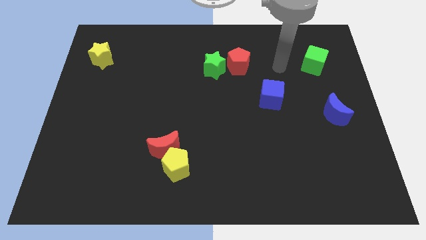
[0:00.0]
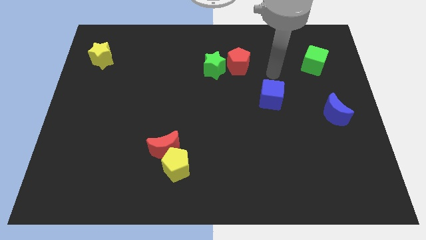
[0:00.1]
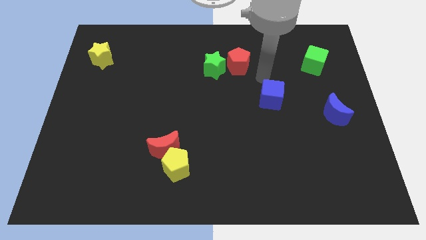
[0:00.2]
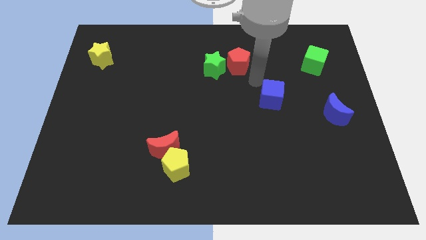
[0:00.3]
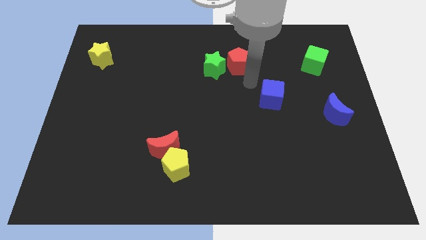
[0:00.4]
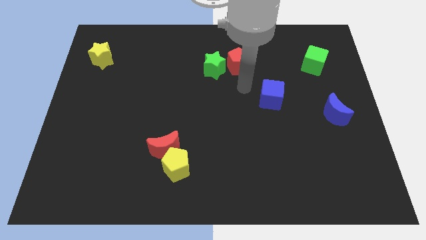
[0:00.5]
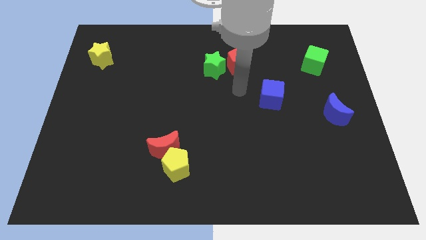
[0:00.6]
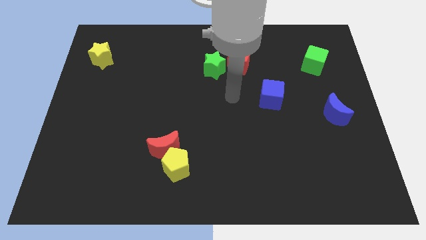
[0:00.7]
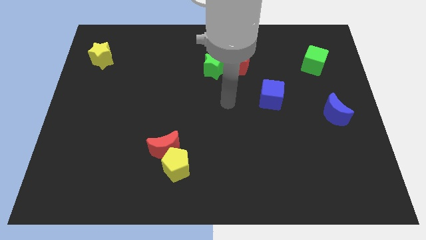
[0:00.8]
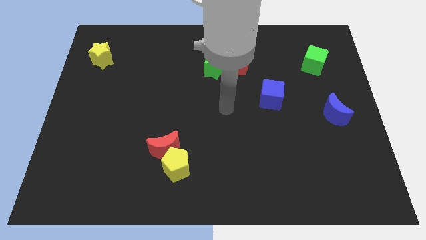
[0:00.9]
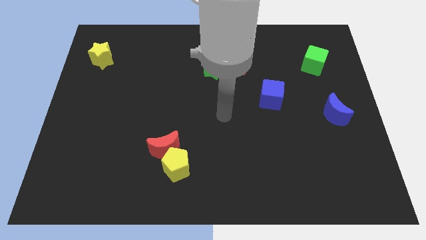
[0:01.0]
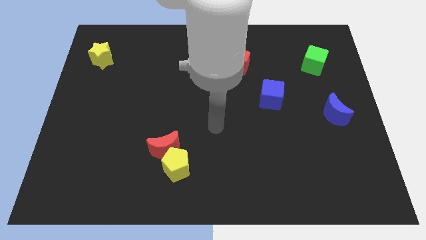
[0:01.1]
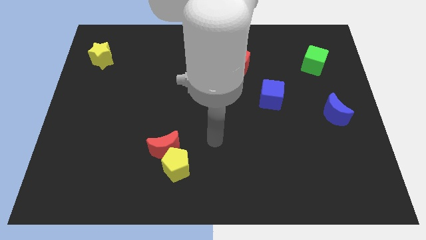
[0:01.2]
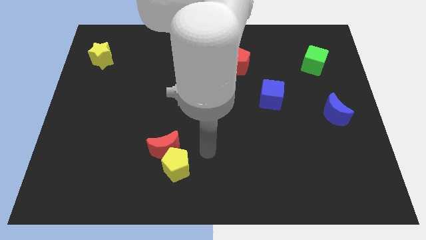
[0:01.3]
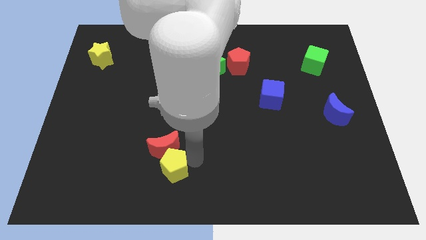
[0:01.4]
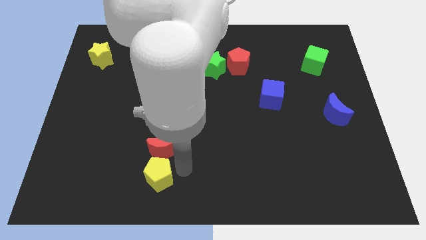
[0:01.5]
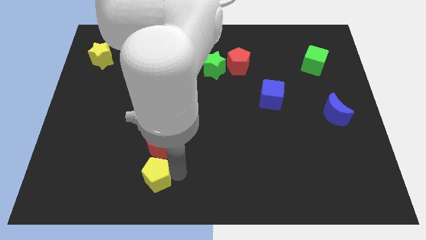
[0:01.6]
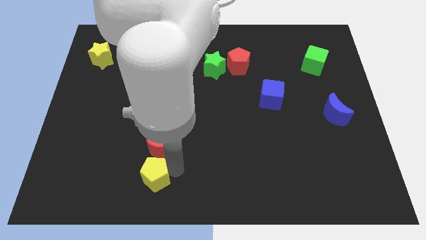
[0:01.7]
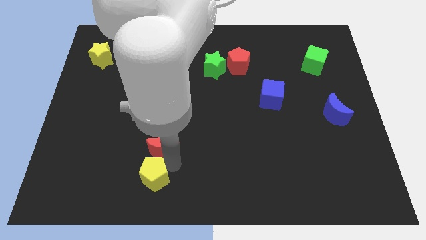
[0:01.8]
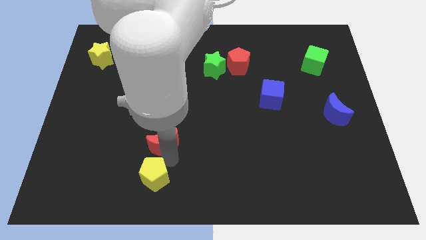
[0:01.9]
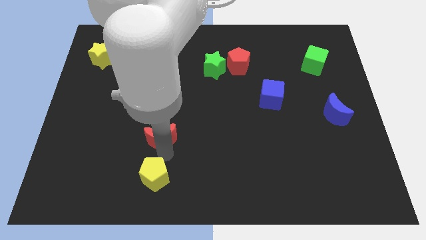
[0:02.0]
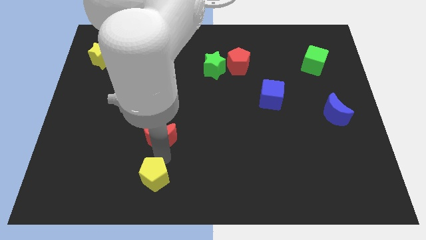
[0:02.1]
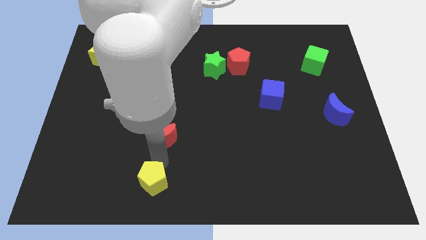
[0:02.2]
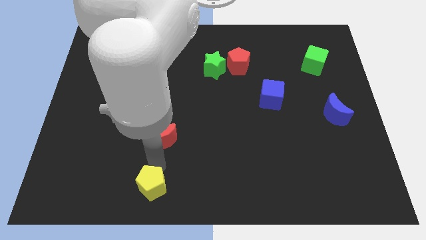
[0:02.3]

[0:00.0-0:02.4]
pull the red moon apart from the yellow pentagon

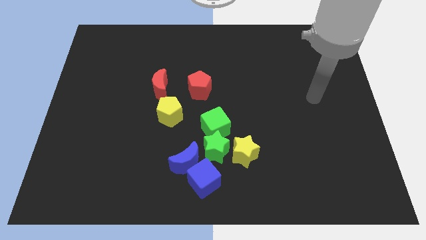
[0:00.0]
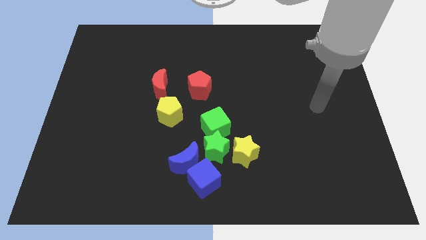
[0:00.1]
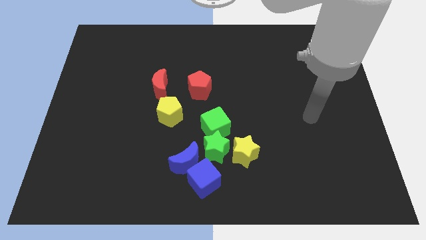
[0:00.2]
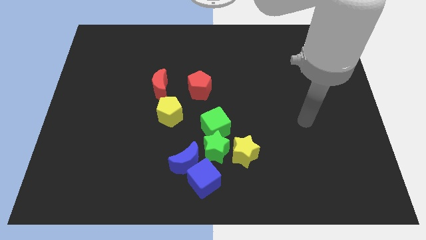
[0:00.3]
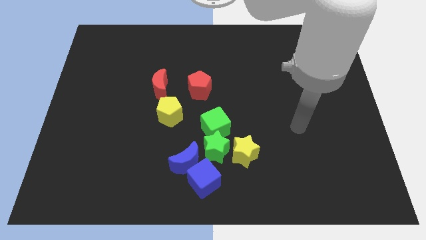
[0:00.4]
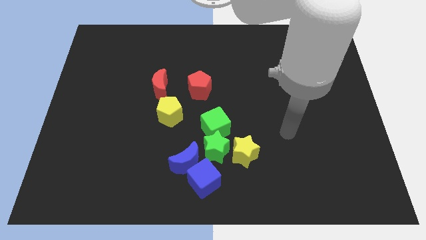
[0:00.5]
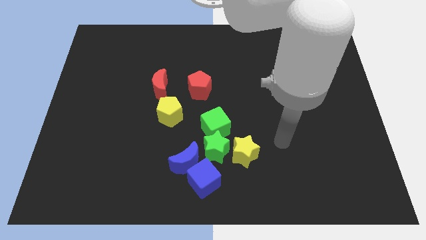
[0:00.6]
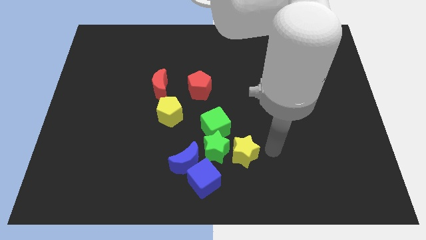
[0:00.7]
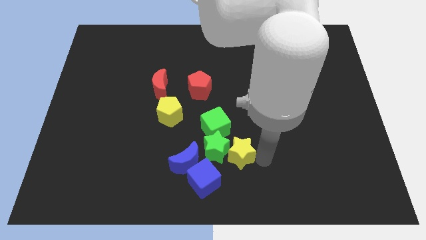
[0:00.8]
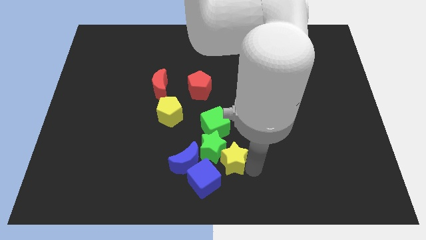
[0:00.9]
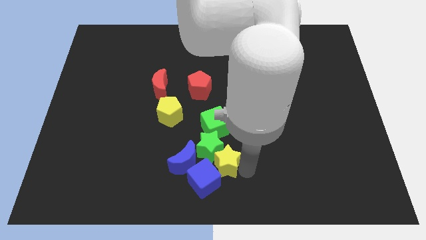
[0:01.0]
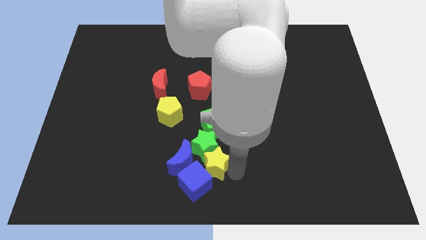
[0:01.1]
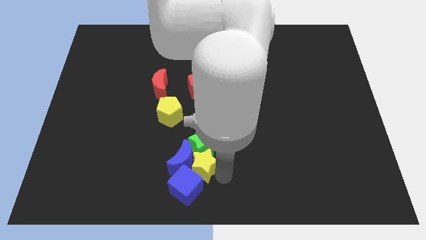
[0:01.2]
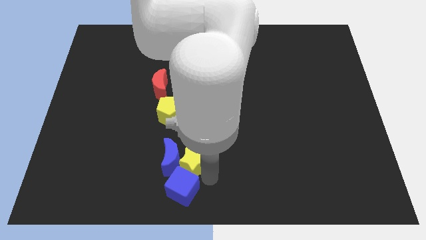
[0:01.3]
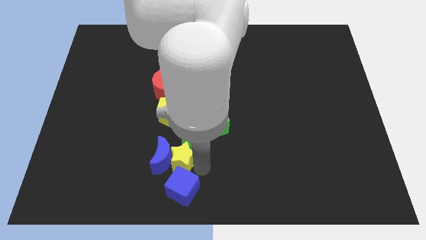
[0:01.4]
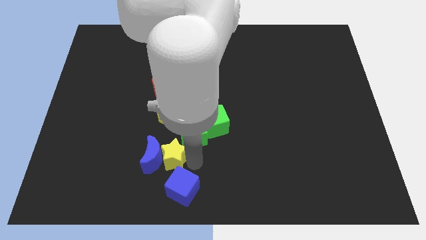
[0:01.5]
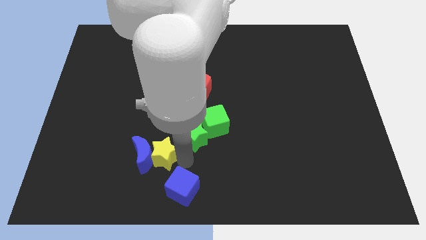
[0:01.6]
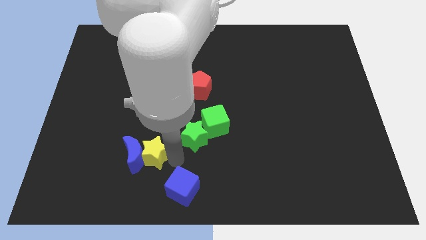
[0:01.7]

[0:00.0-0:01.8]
pull the blue moon apart from the blue cube and green star

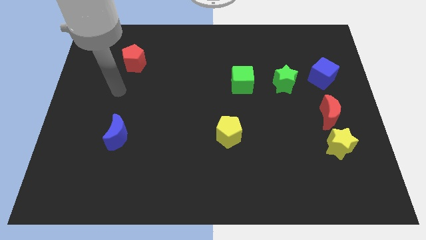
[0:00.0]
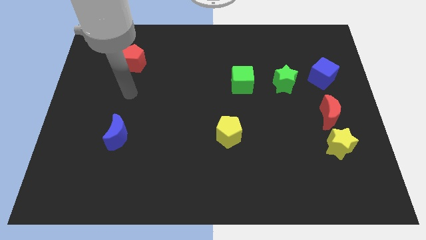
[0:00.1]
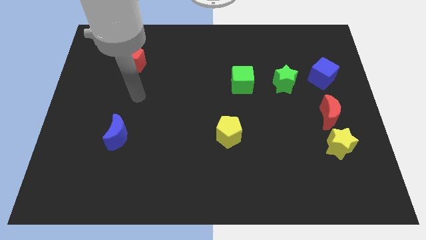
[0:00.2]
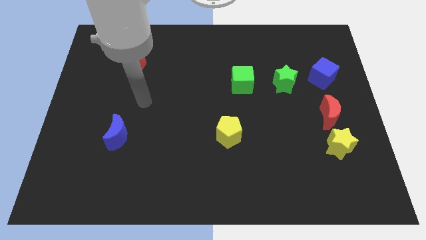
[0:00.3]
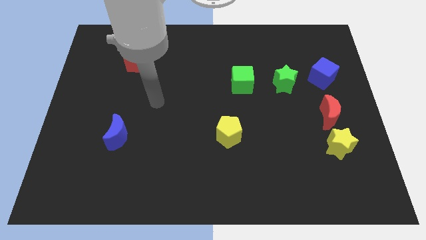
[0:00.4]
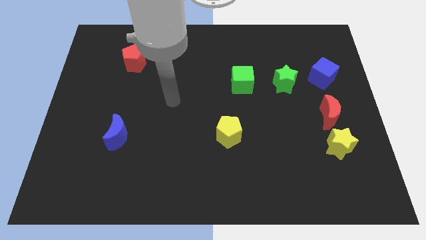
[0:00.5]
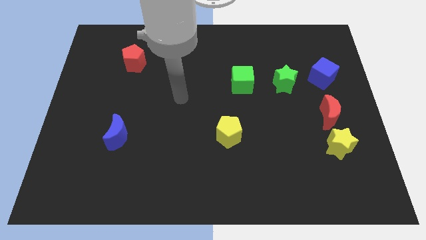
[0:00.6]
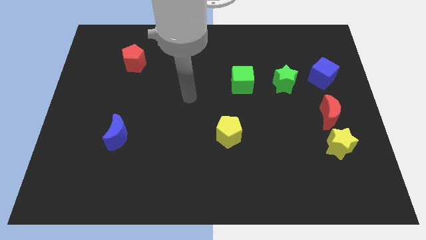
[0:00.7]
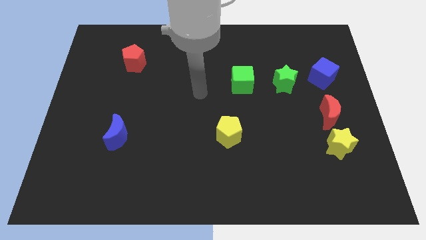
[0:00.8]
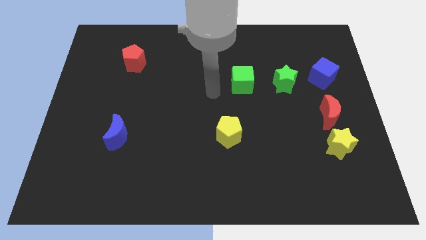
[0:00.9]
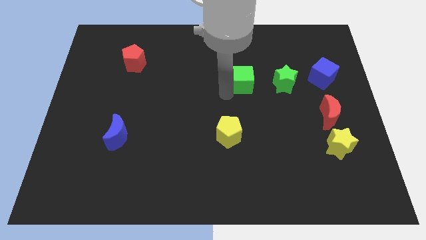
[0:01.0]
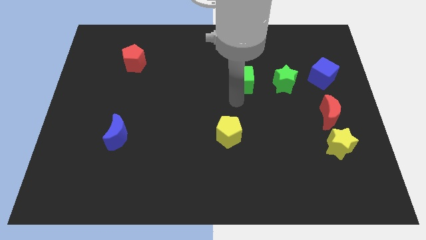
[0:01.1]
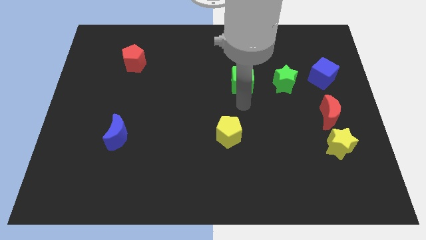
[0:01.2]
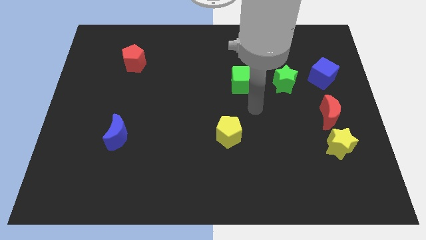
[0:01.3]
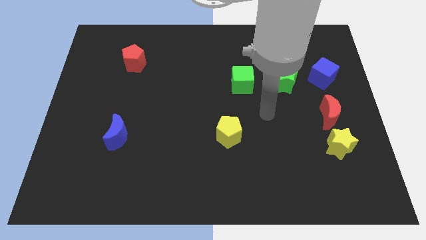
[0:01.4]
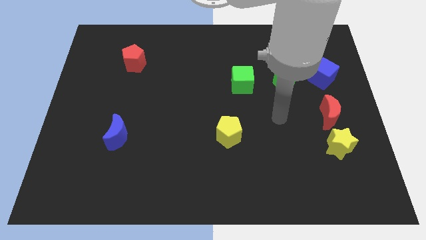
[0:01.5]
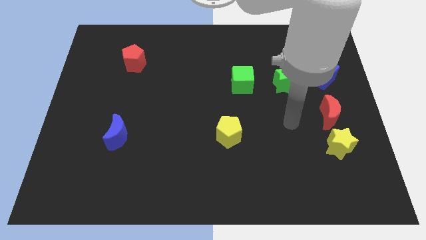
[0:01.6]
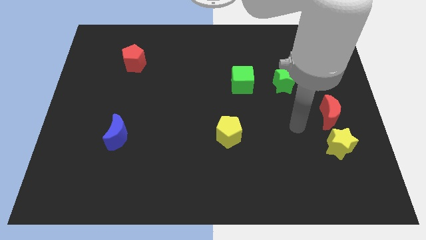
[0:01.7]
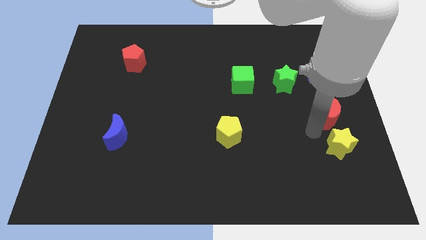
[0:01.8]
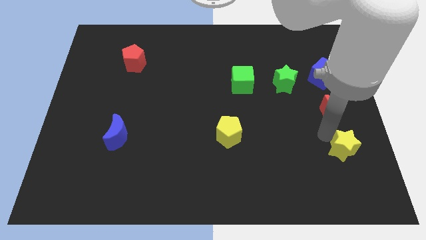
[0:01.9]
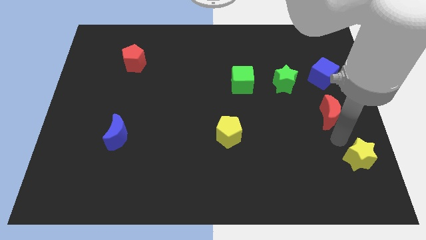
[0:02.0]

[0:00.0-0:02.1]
pull the red moon apart from the yellow star

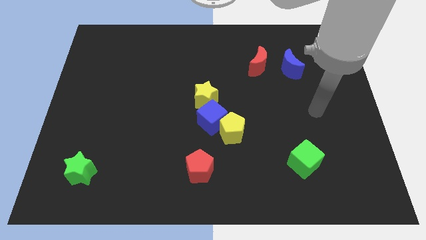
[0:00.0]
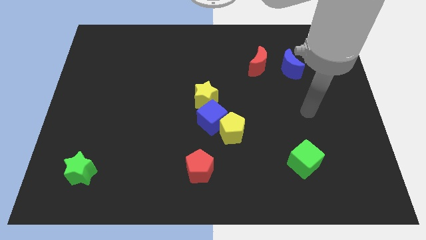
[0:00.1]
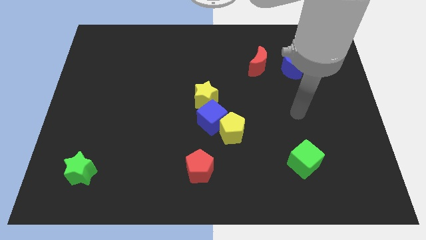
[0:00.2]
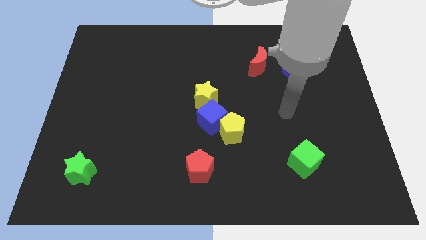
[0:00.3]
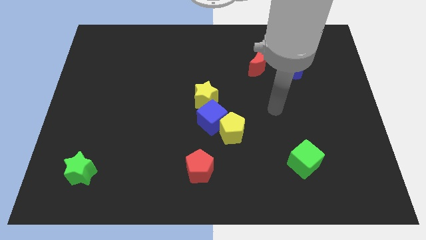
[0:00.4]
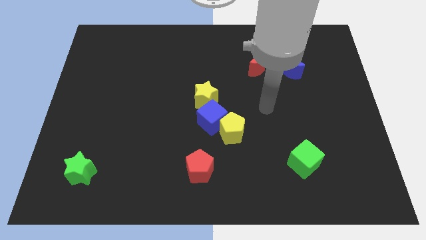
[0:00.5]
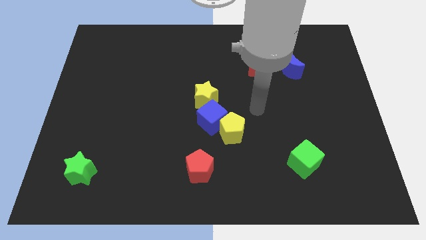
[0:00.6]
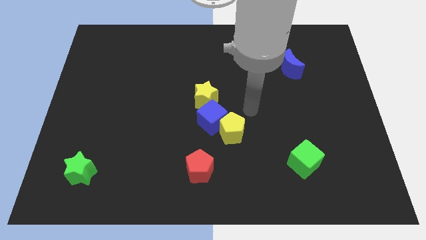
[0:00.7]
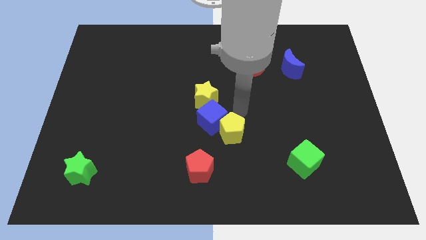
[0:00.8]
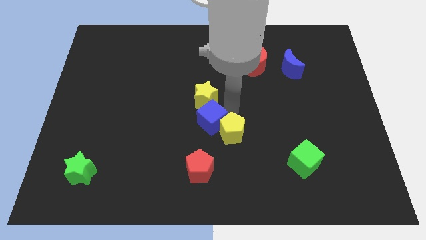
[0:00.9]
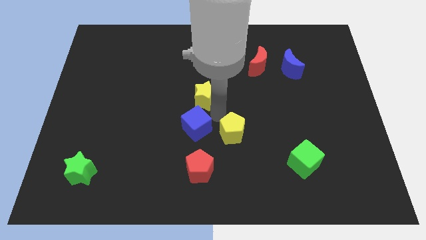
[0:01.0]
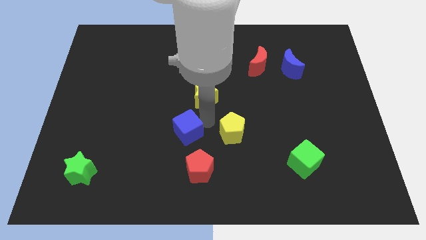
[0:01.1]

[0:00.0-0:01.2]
move the yellow pentagon away from the blue cube

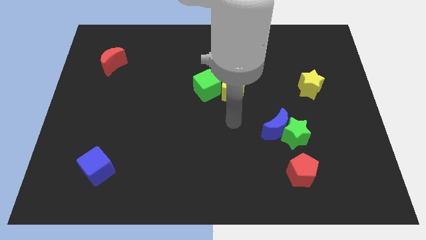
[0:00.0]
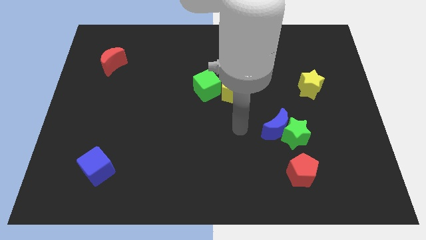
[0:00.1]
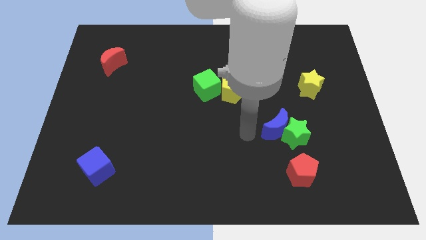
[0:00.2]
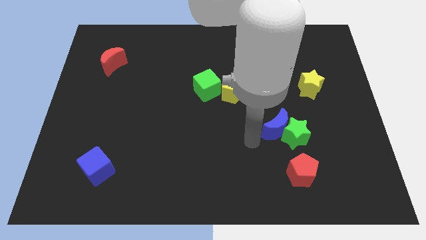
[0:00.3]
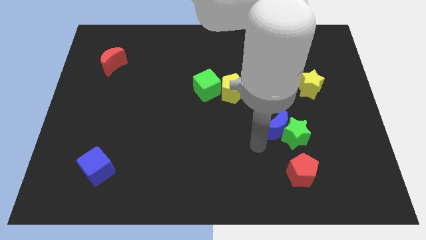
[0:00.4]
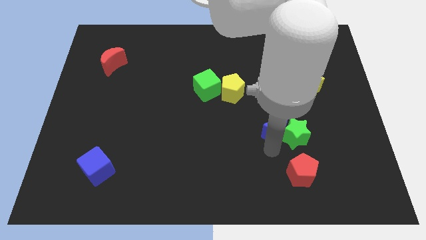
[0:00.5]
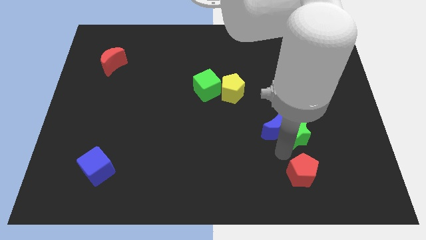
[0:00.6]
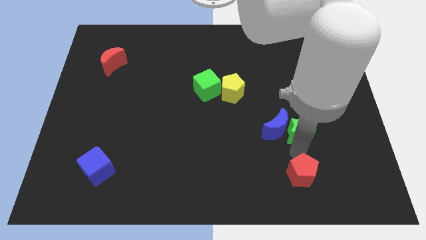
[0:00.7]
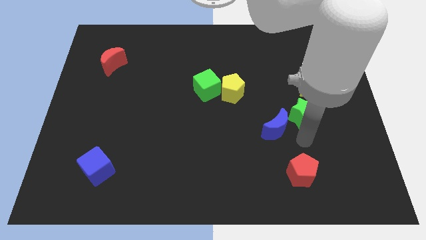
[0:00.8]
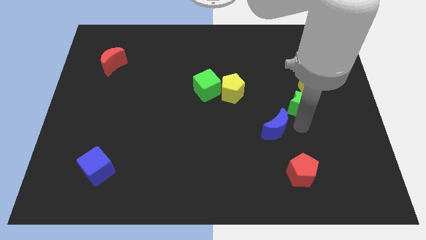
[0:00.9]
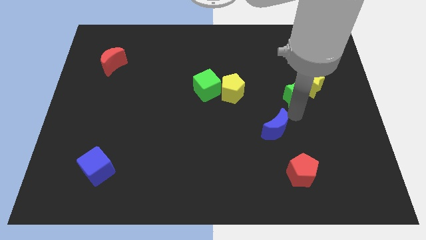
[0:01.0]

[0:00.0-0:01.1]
pull the blue moon apart from the green star

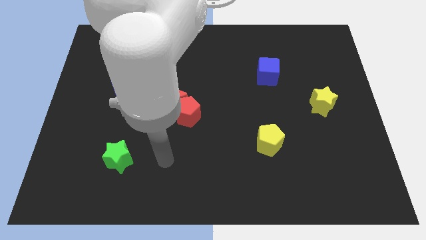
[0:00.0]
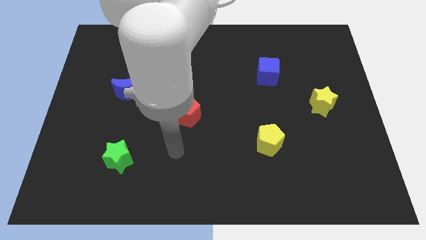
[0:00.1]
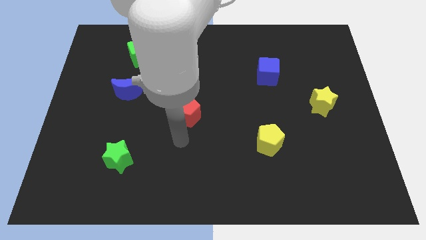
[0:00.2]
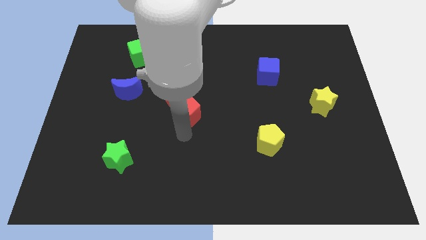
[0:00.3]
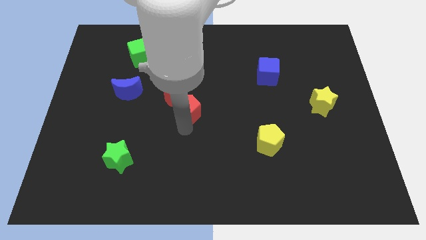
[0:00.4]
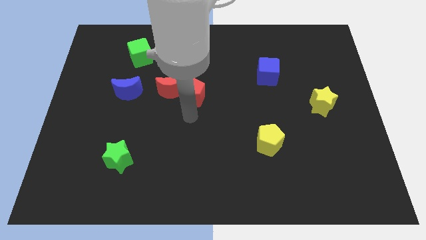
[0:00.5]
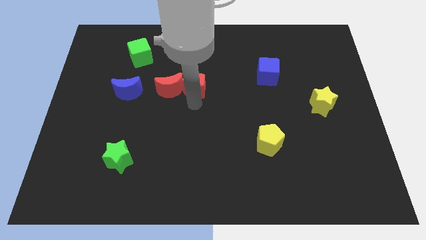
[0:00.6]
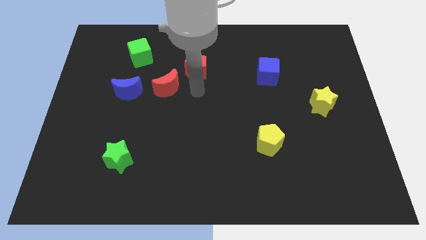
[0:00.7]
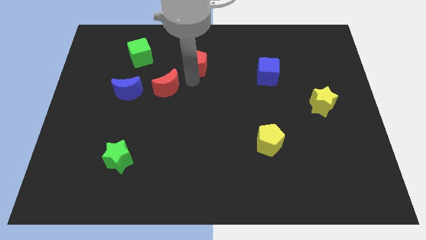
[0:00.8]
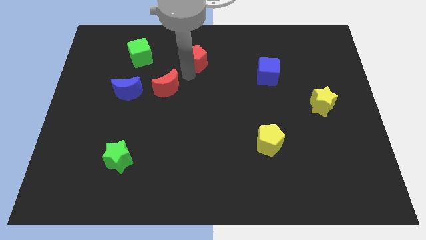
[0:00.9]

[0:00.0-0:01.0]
pull the red moon apart from the red pentagon
